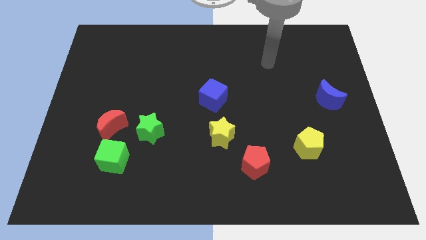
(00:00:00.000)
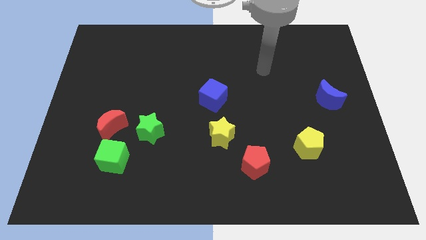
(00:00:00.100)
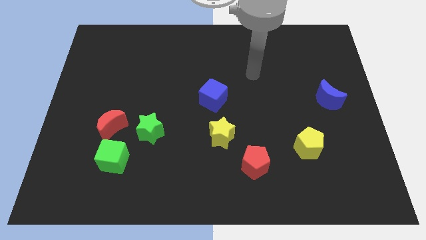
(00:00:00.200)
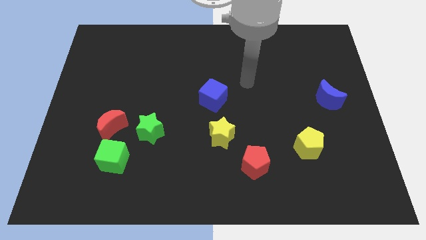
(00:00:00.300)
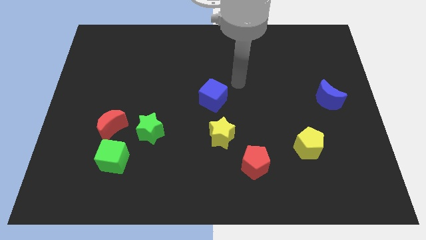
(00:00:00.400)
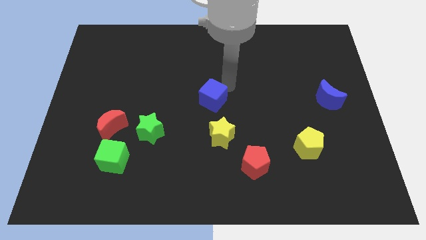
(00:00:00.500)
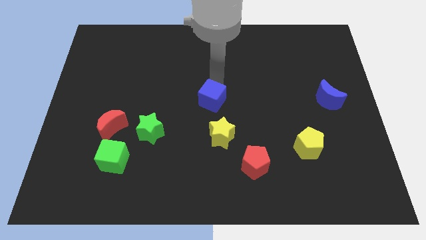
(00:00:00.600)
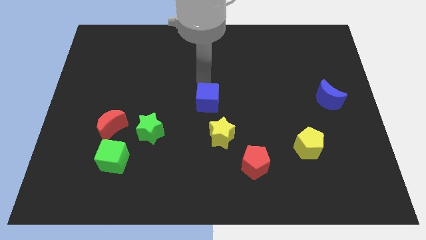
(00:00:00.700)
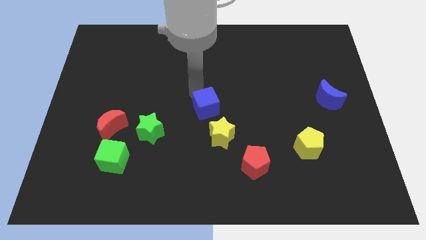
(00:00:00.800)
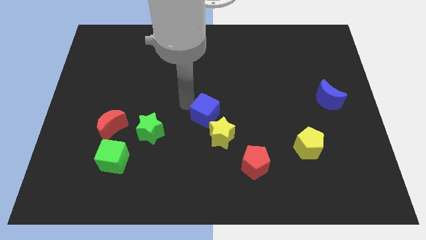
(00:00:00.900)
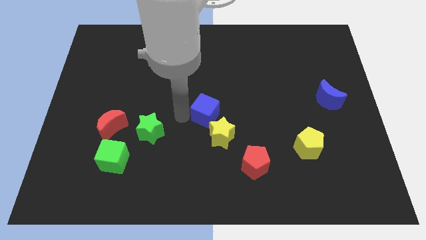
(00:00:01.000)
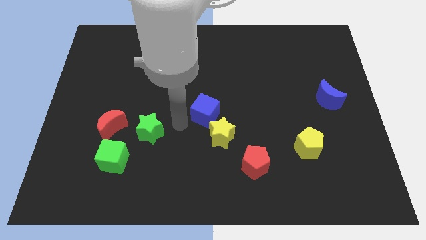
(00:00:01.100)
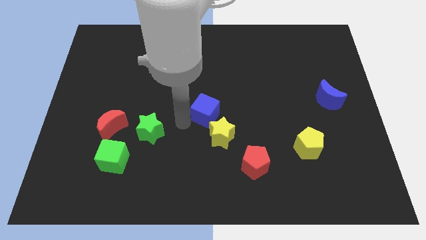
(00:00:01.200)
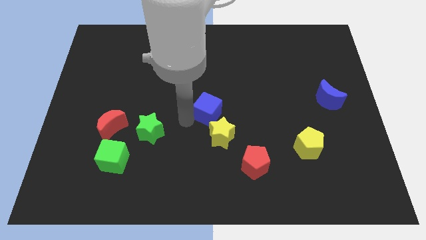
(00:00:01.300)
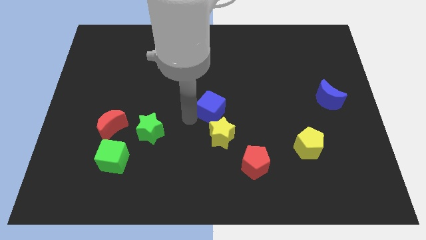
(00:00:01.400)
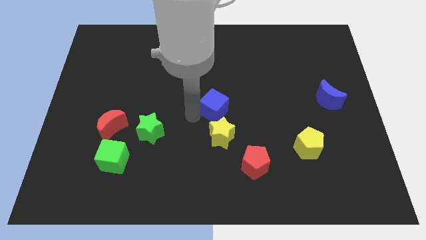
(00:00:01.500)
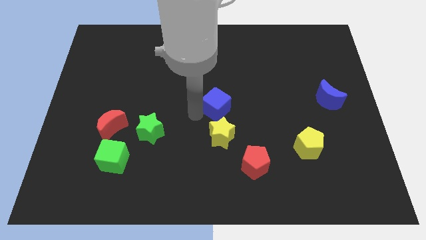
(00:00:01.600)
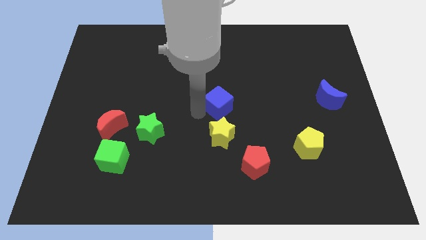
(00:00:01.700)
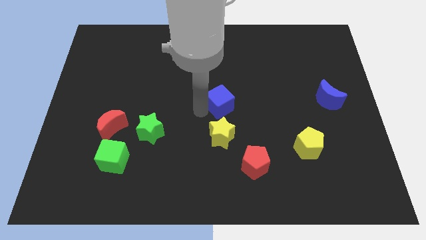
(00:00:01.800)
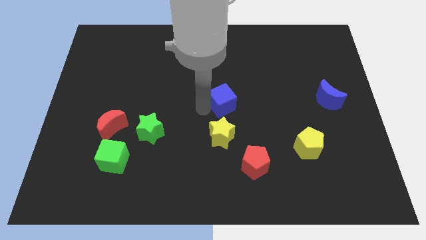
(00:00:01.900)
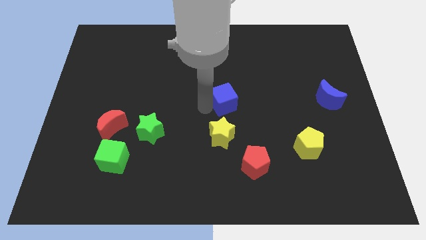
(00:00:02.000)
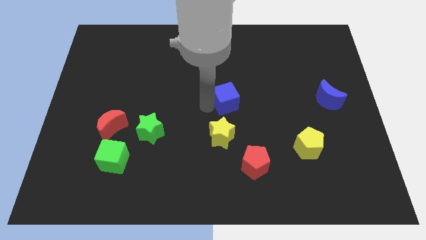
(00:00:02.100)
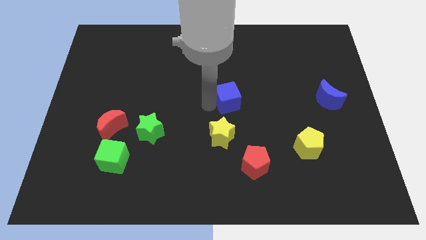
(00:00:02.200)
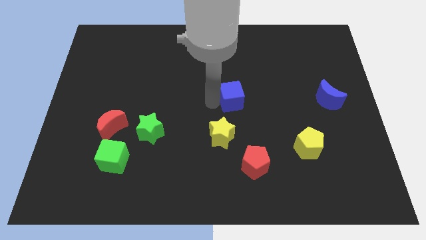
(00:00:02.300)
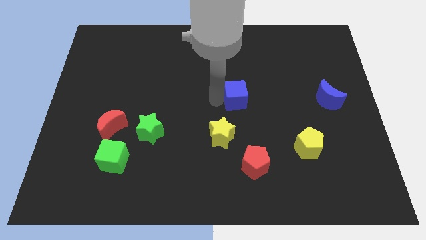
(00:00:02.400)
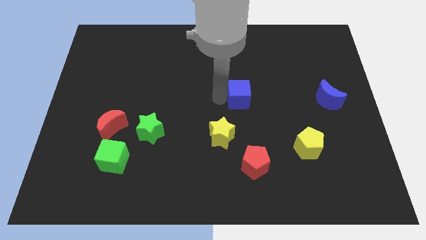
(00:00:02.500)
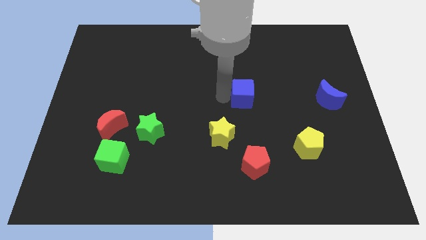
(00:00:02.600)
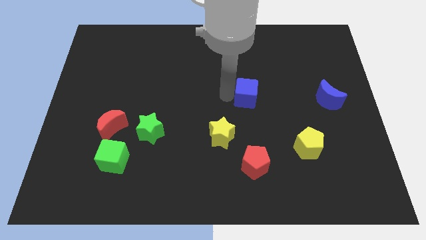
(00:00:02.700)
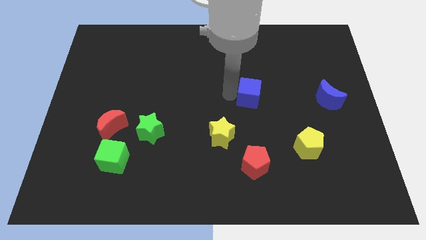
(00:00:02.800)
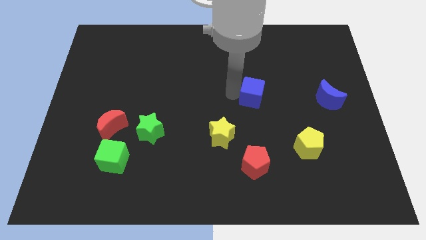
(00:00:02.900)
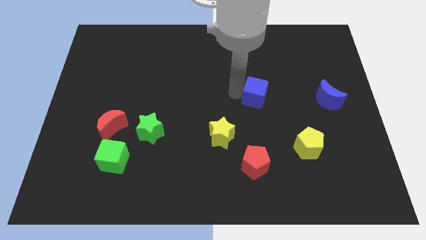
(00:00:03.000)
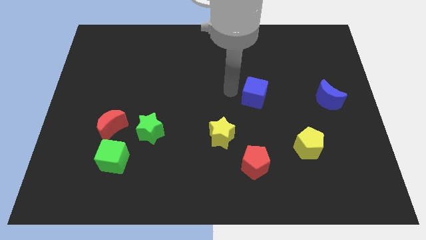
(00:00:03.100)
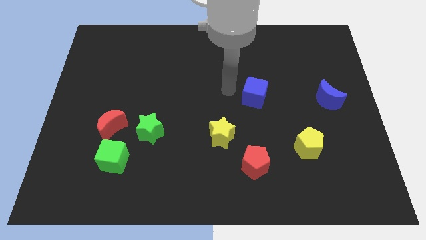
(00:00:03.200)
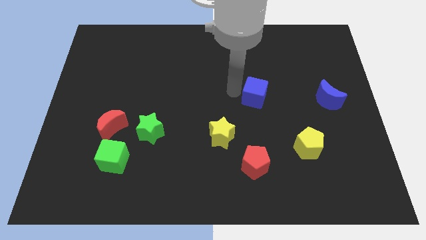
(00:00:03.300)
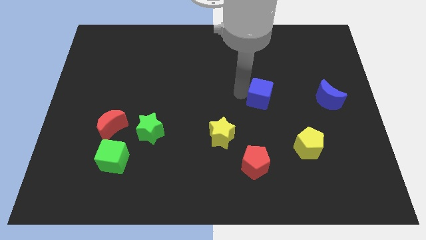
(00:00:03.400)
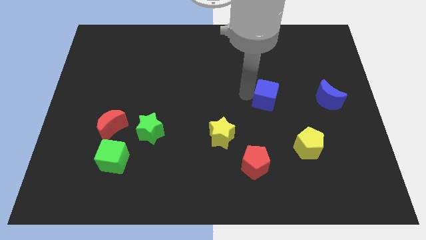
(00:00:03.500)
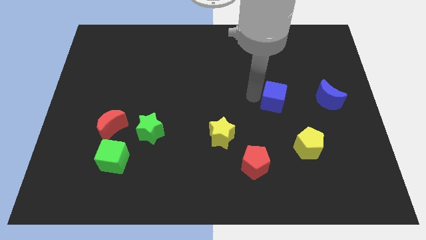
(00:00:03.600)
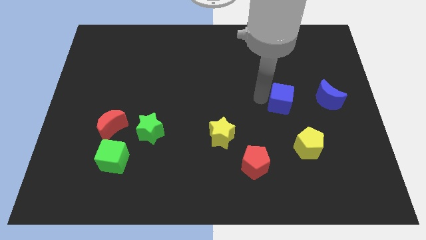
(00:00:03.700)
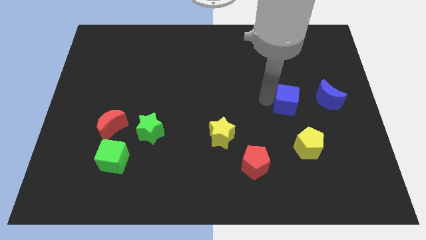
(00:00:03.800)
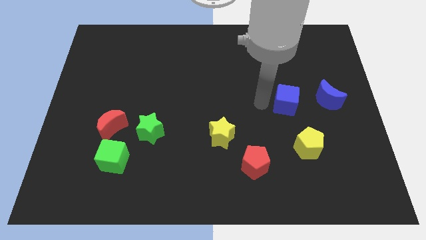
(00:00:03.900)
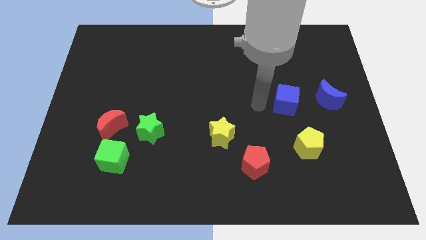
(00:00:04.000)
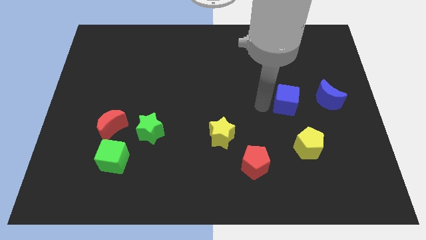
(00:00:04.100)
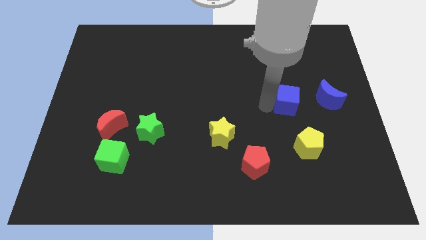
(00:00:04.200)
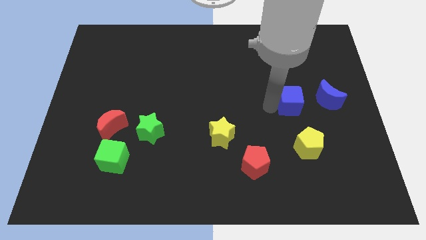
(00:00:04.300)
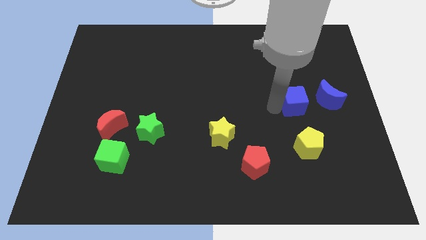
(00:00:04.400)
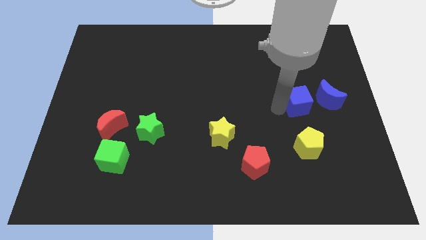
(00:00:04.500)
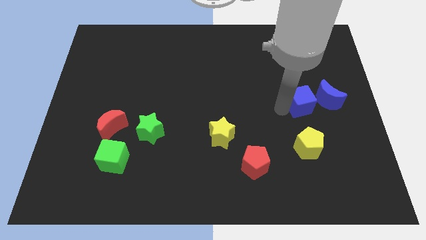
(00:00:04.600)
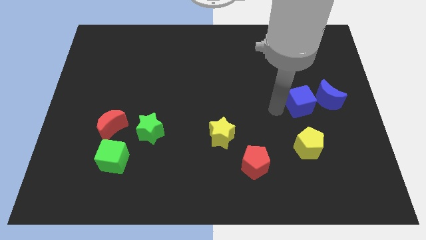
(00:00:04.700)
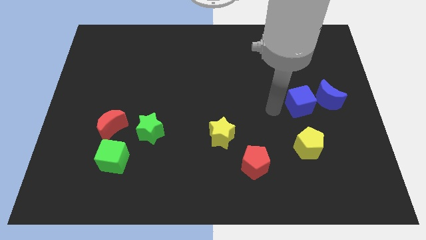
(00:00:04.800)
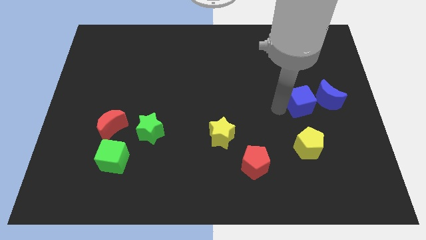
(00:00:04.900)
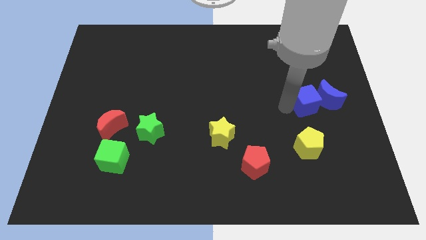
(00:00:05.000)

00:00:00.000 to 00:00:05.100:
push the blue cube next to the blue moon
